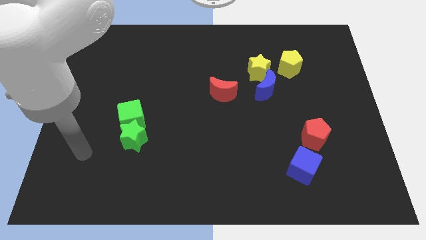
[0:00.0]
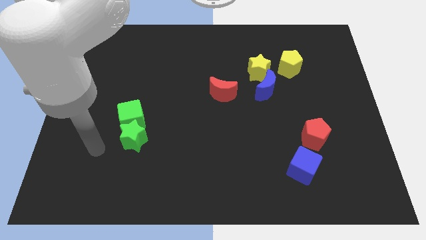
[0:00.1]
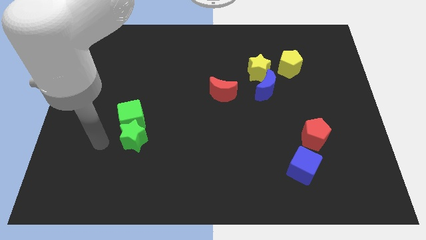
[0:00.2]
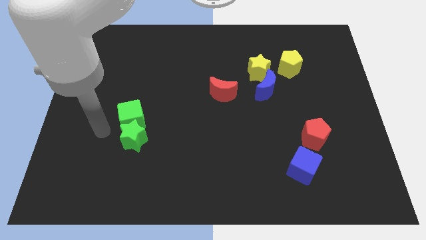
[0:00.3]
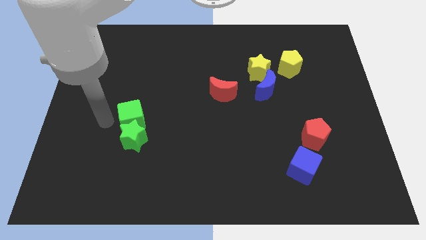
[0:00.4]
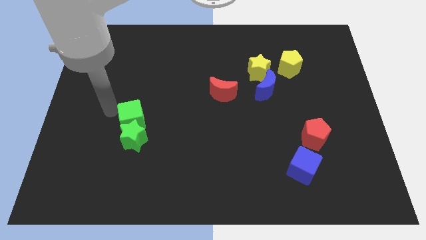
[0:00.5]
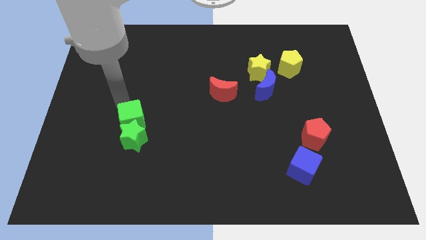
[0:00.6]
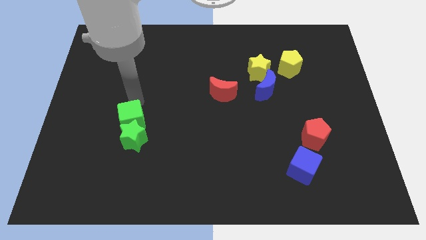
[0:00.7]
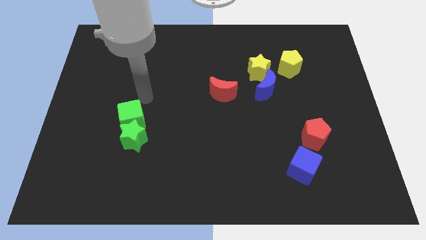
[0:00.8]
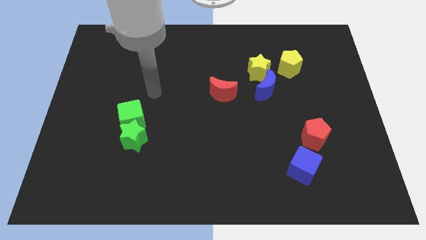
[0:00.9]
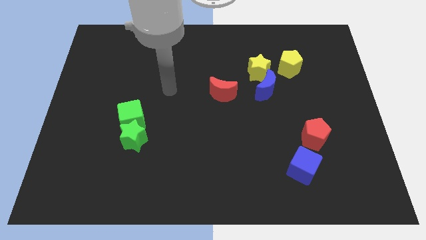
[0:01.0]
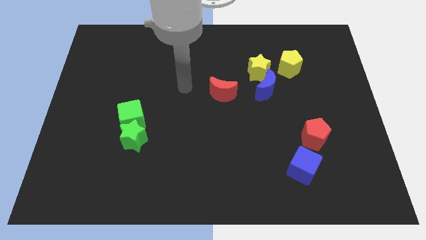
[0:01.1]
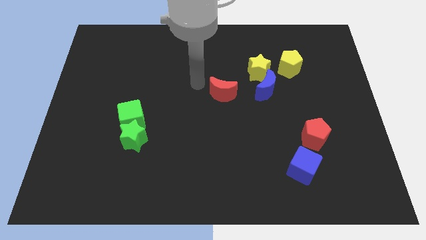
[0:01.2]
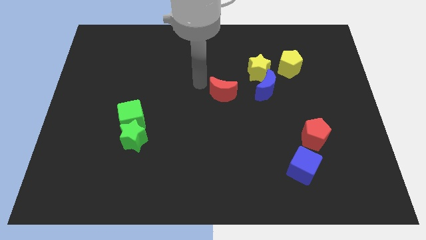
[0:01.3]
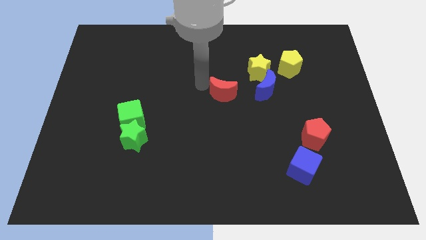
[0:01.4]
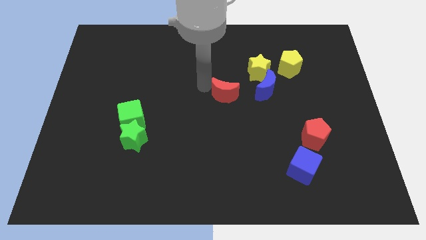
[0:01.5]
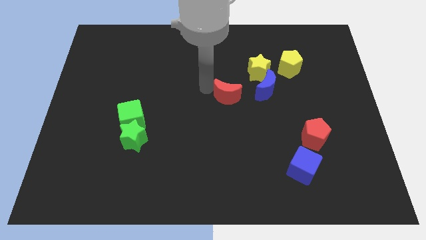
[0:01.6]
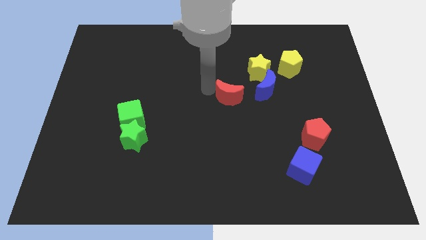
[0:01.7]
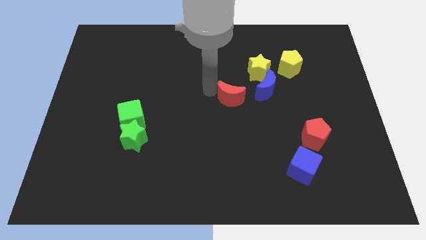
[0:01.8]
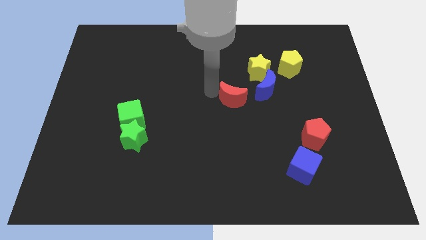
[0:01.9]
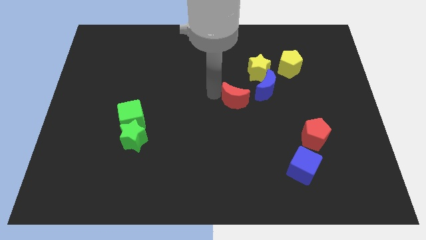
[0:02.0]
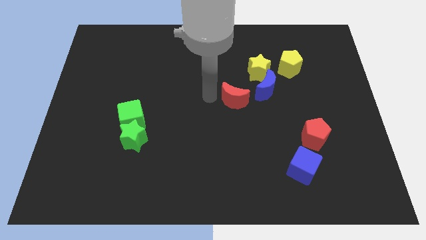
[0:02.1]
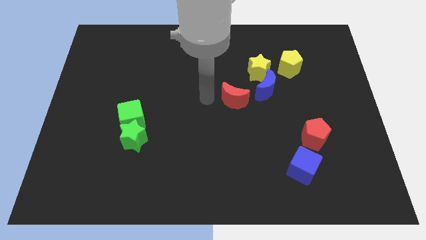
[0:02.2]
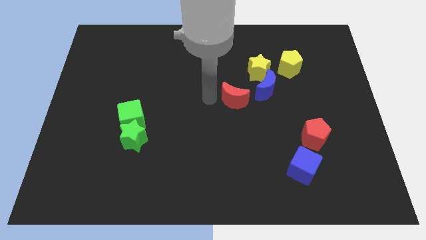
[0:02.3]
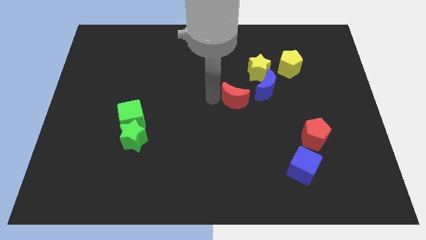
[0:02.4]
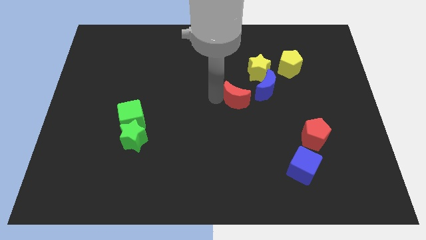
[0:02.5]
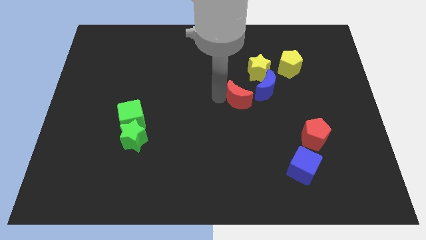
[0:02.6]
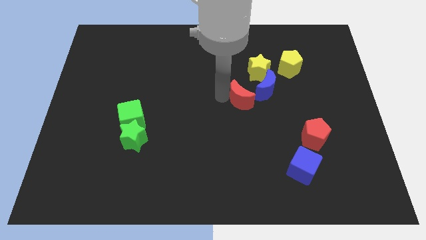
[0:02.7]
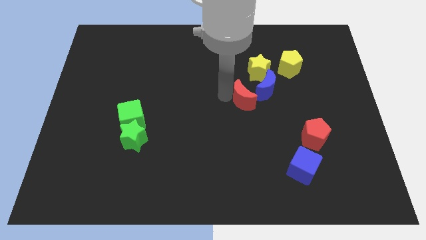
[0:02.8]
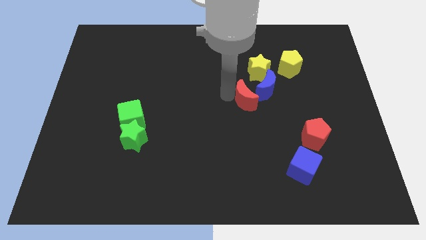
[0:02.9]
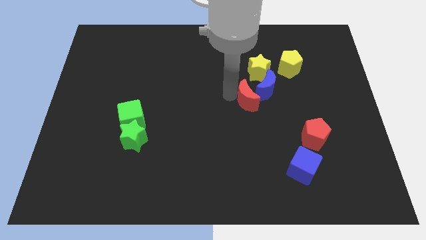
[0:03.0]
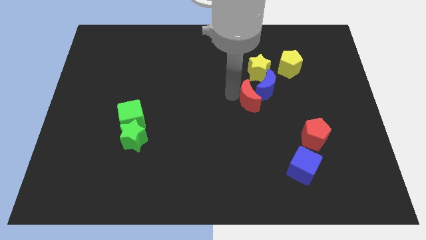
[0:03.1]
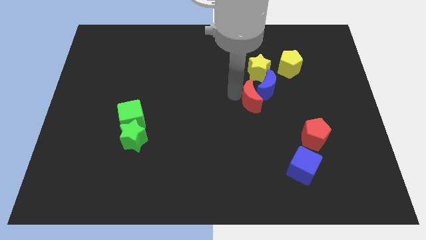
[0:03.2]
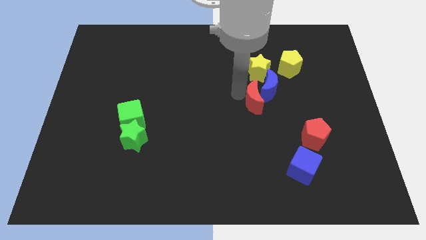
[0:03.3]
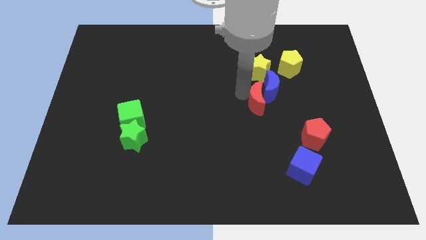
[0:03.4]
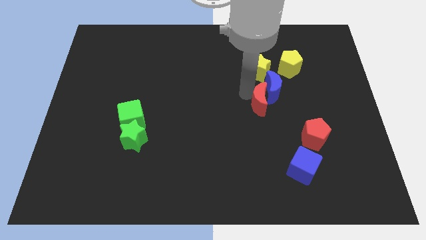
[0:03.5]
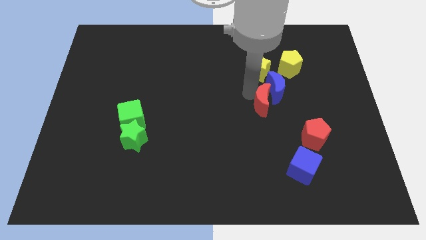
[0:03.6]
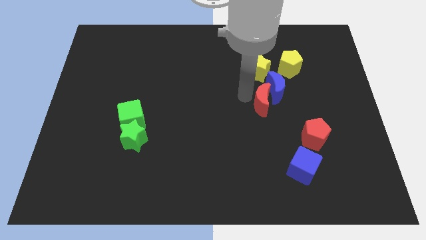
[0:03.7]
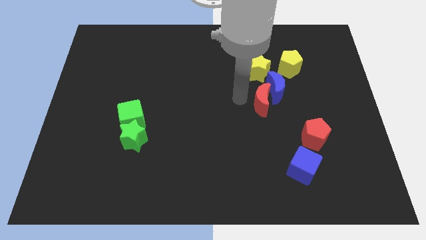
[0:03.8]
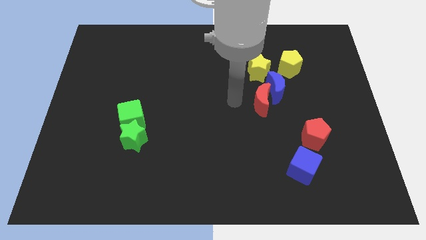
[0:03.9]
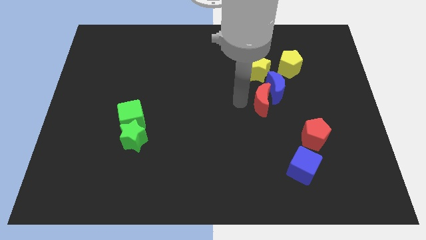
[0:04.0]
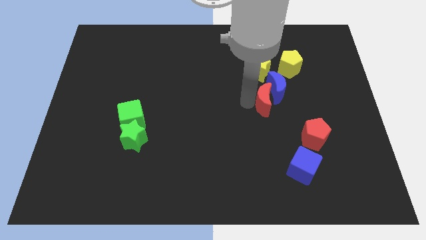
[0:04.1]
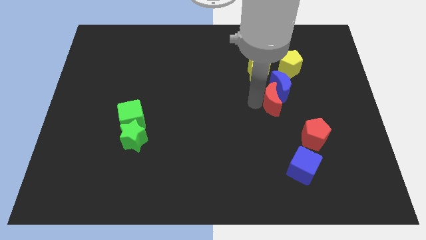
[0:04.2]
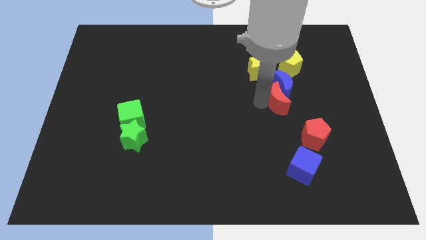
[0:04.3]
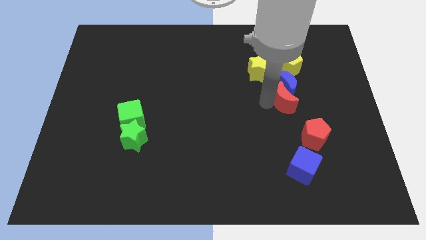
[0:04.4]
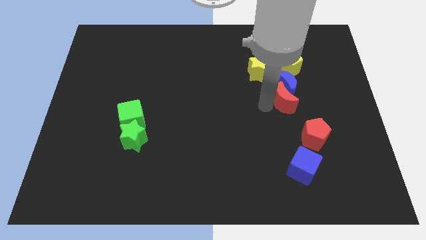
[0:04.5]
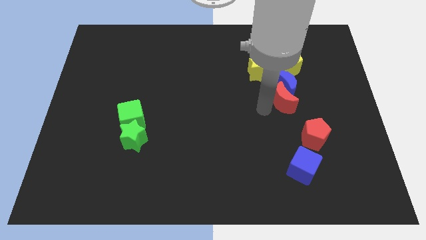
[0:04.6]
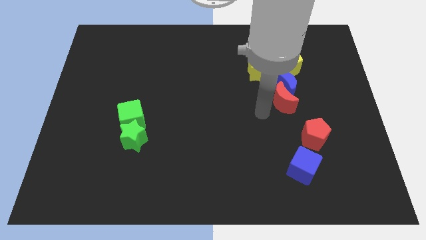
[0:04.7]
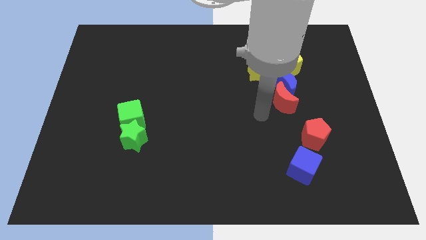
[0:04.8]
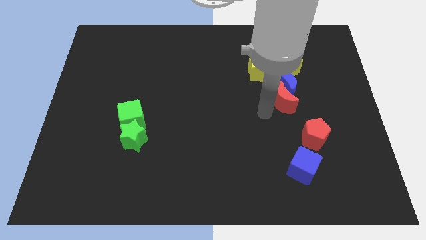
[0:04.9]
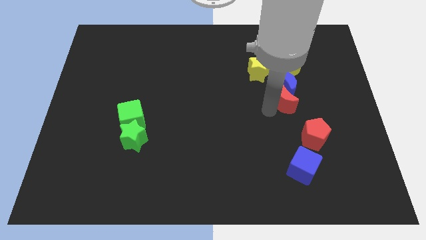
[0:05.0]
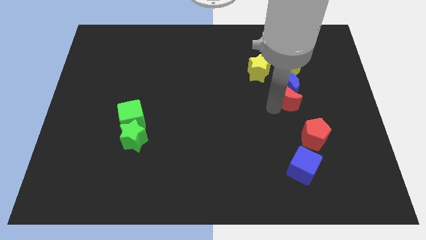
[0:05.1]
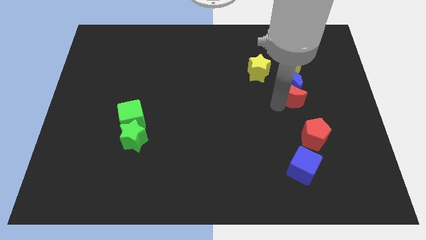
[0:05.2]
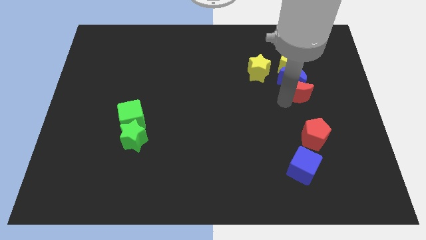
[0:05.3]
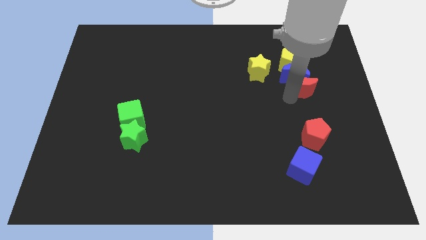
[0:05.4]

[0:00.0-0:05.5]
move the red moon to the bottom right side of the yellow pentagon

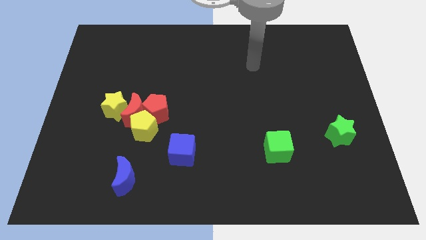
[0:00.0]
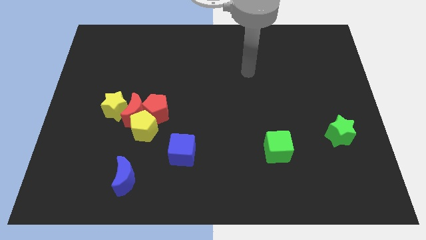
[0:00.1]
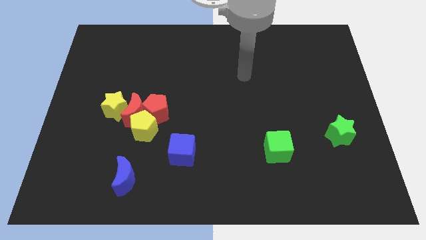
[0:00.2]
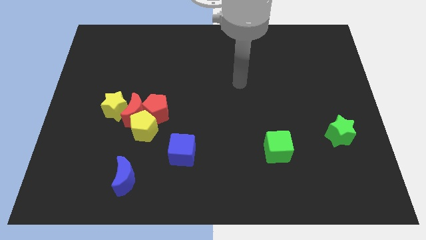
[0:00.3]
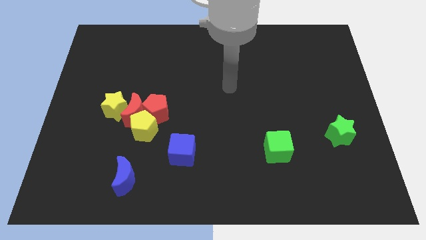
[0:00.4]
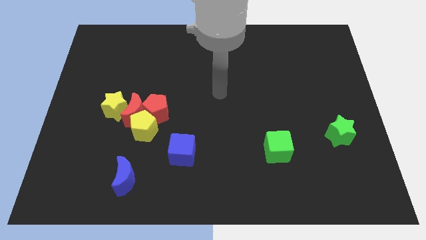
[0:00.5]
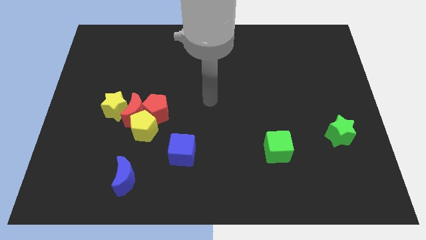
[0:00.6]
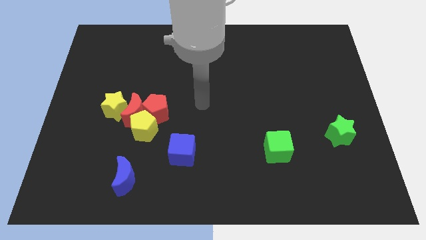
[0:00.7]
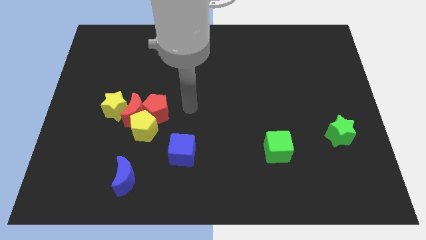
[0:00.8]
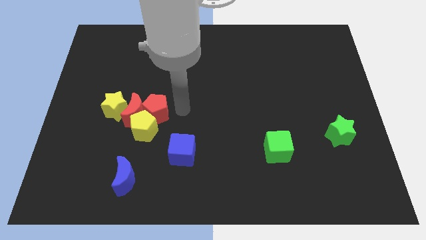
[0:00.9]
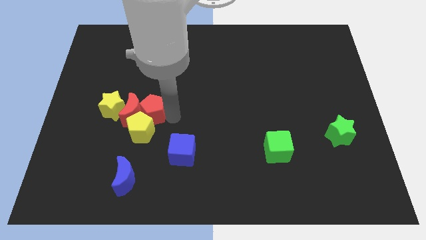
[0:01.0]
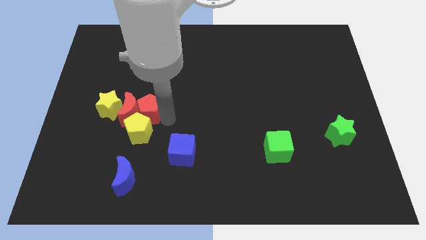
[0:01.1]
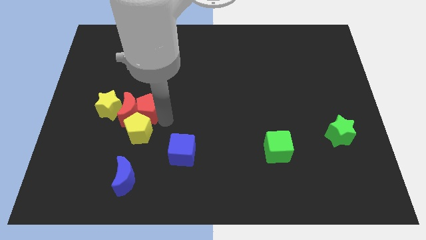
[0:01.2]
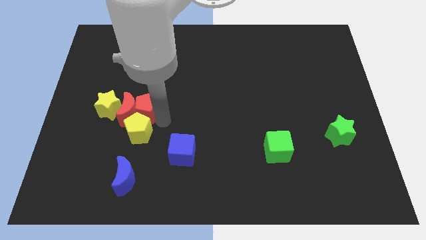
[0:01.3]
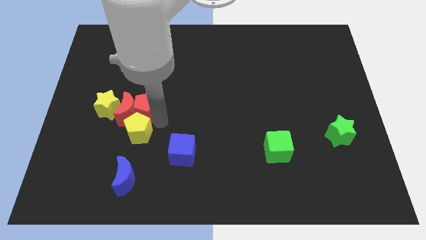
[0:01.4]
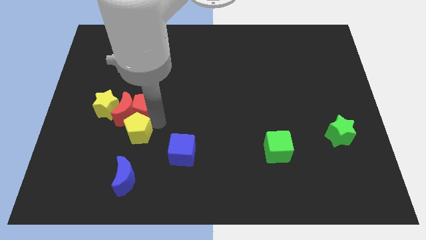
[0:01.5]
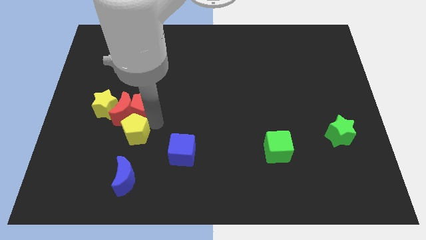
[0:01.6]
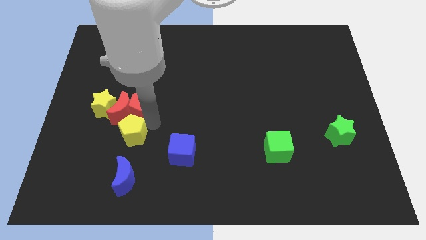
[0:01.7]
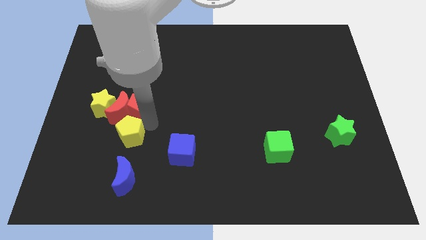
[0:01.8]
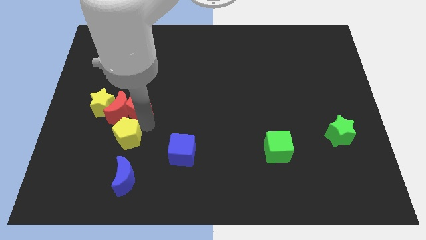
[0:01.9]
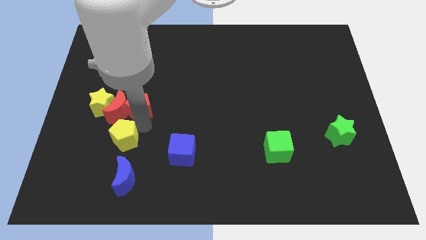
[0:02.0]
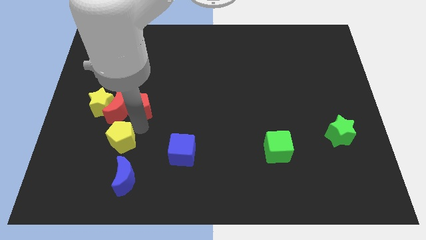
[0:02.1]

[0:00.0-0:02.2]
put the yellow pentagon diagonally up and to the left of the blue moon

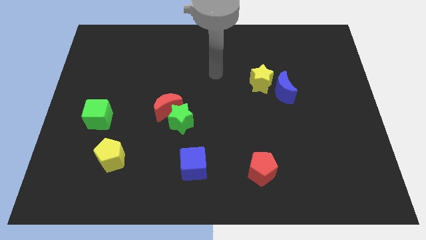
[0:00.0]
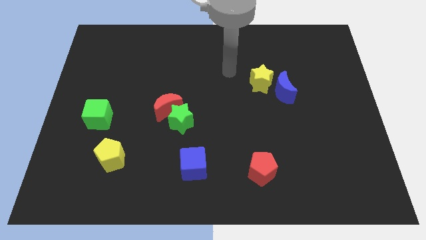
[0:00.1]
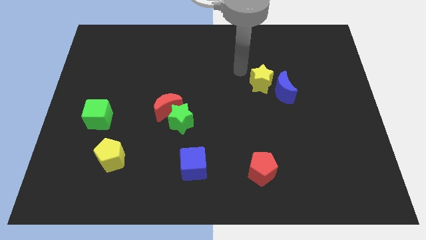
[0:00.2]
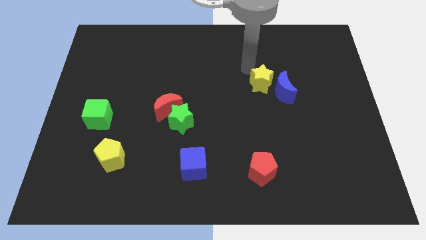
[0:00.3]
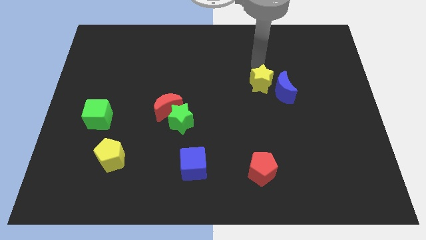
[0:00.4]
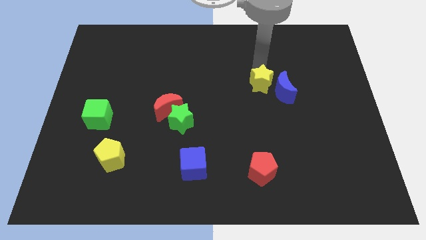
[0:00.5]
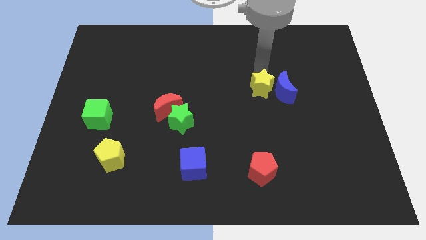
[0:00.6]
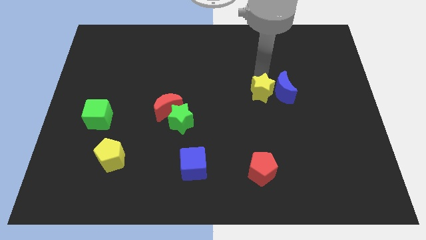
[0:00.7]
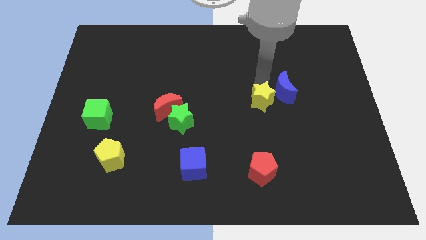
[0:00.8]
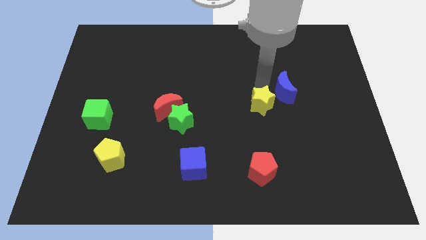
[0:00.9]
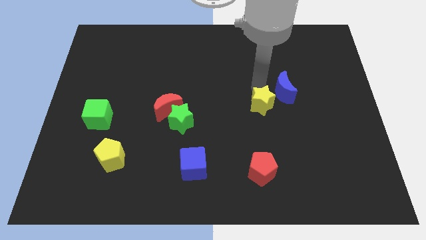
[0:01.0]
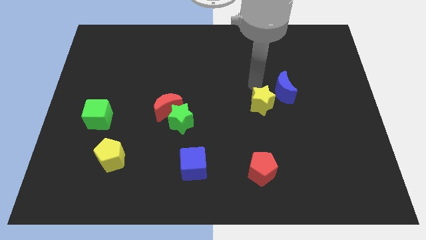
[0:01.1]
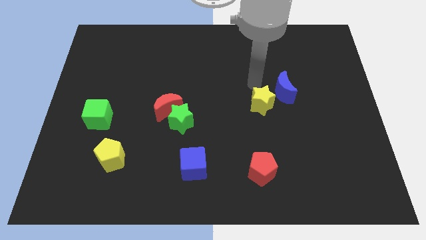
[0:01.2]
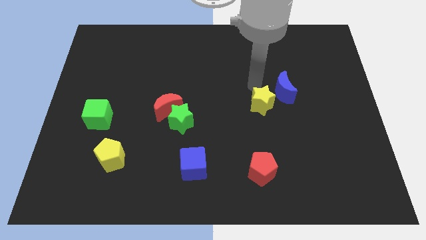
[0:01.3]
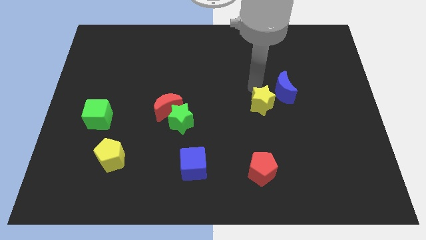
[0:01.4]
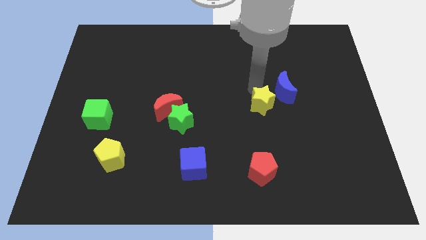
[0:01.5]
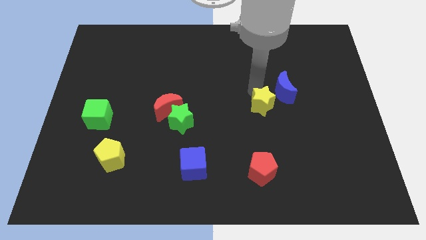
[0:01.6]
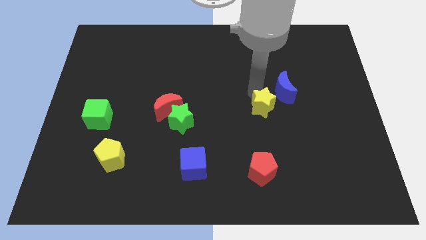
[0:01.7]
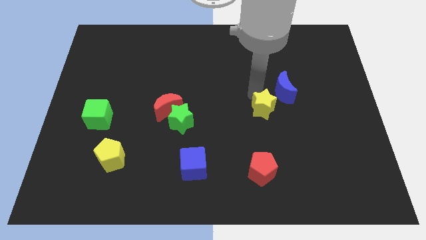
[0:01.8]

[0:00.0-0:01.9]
push the yellow star below the blue moon
